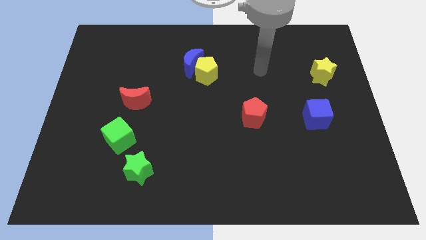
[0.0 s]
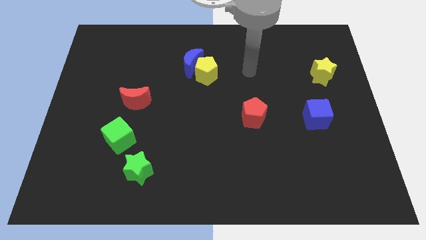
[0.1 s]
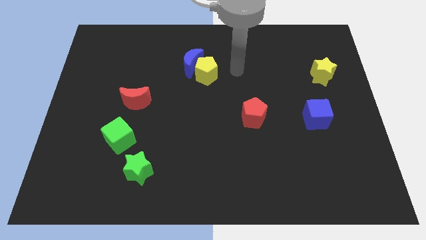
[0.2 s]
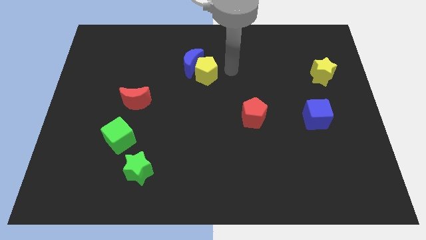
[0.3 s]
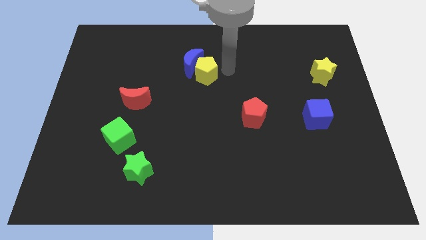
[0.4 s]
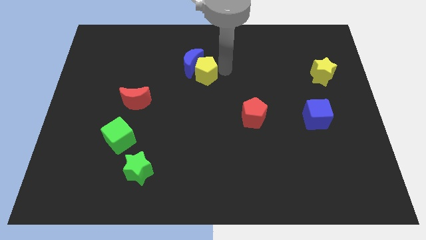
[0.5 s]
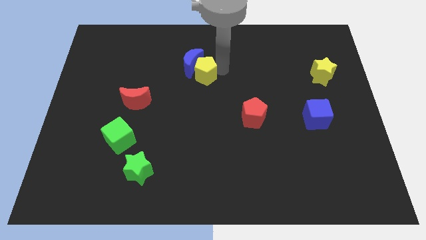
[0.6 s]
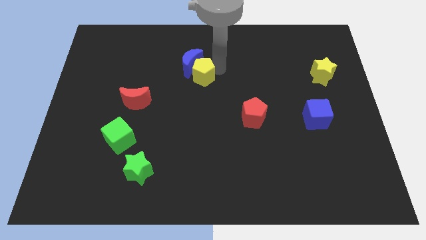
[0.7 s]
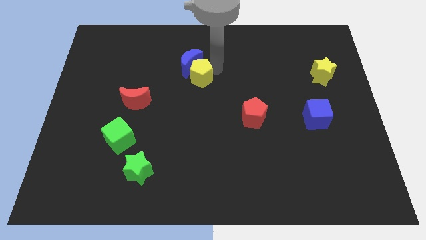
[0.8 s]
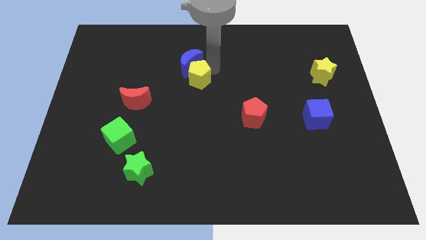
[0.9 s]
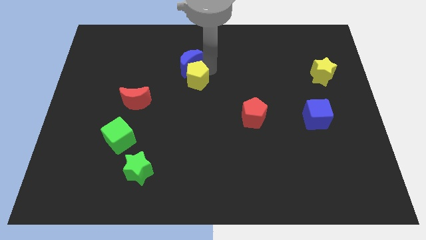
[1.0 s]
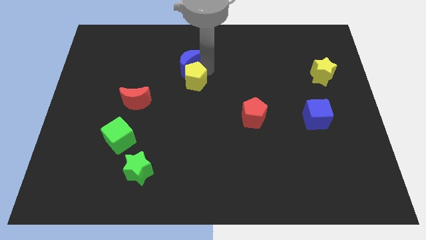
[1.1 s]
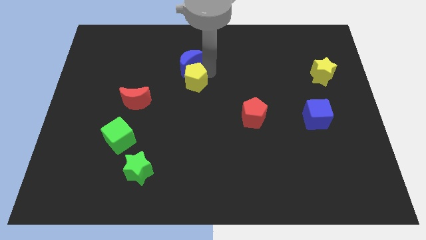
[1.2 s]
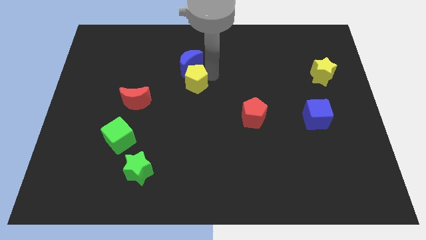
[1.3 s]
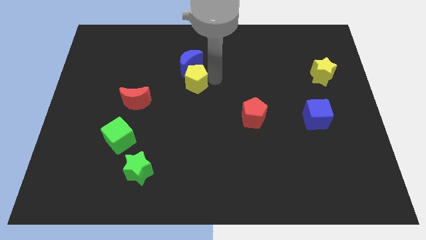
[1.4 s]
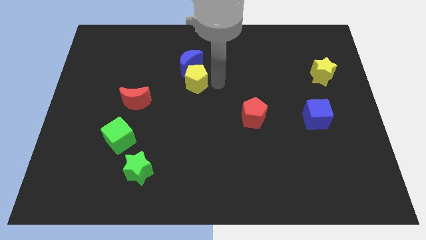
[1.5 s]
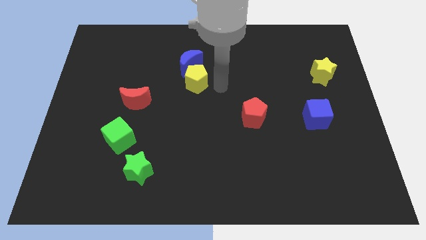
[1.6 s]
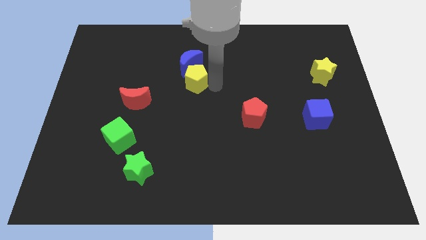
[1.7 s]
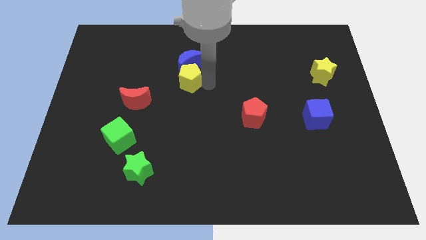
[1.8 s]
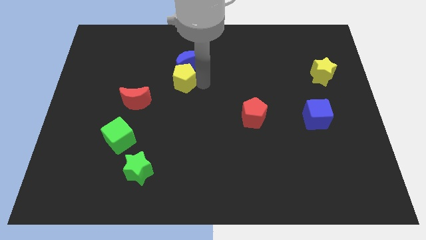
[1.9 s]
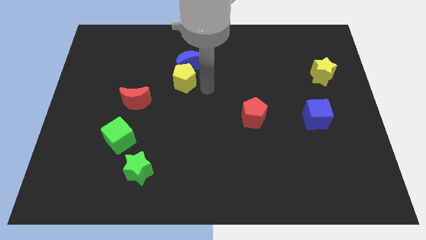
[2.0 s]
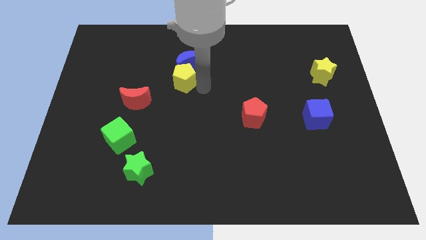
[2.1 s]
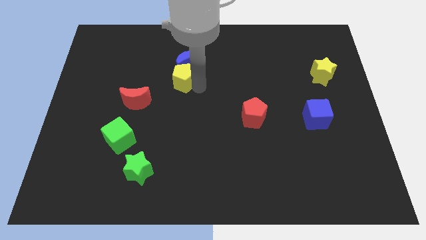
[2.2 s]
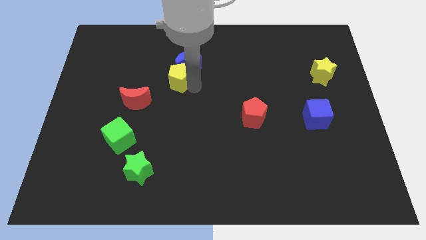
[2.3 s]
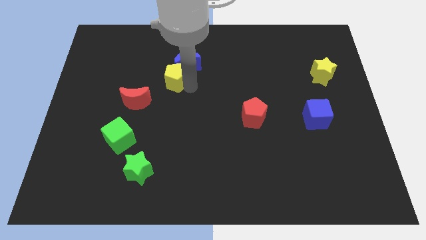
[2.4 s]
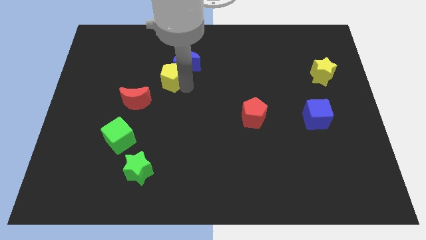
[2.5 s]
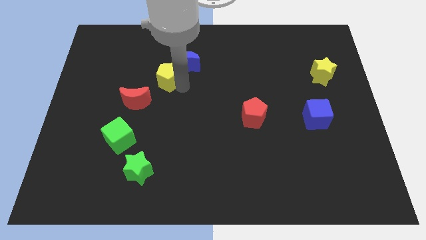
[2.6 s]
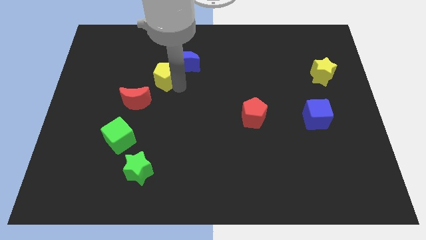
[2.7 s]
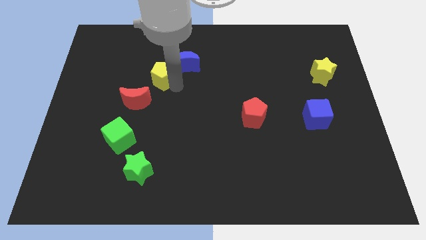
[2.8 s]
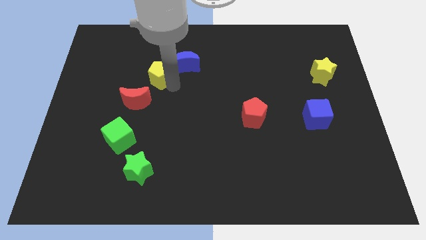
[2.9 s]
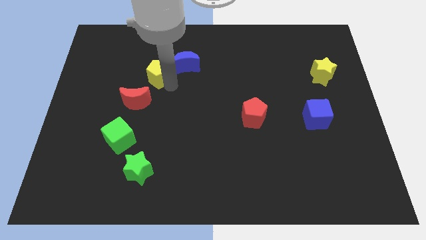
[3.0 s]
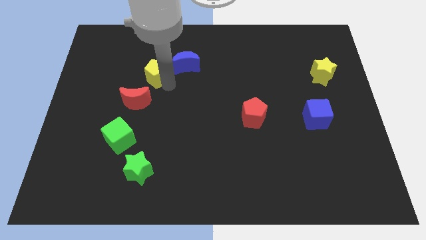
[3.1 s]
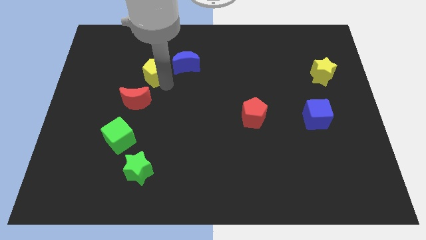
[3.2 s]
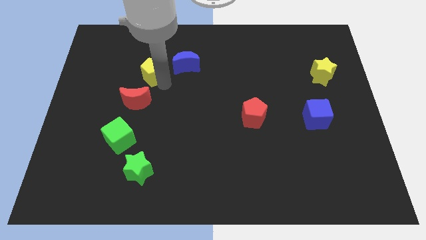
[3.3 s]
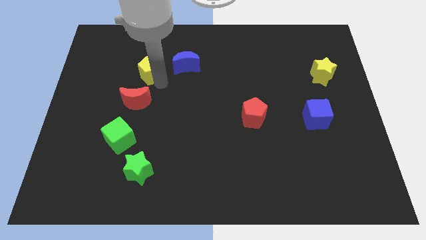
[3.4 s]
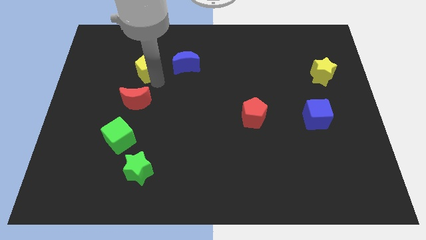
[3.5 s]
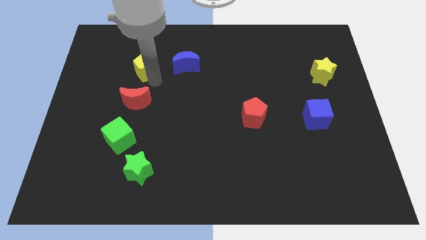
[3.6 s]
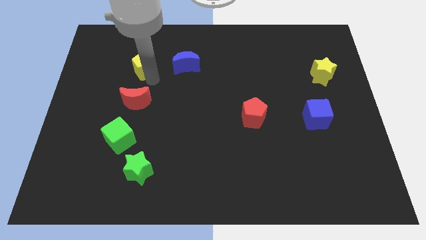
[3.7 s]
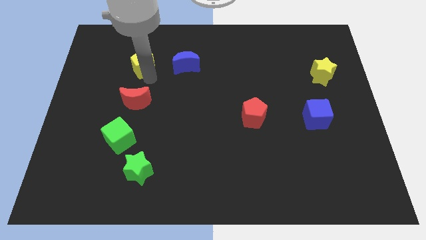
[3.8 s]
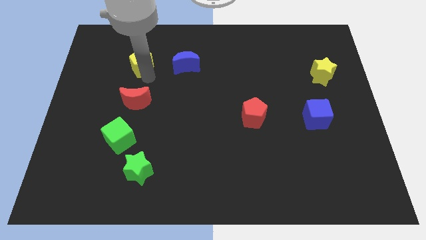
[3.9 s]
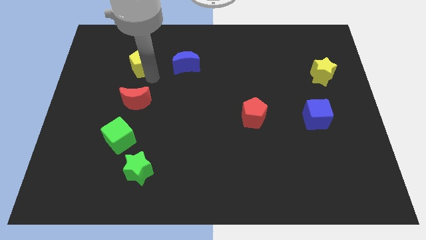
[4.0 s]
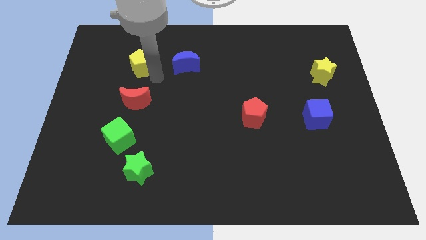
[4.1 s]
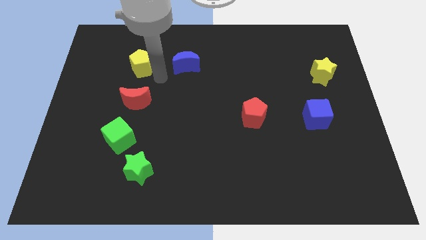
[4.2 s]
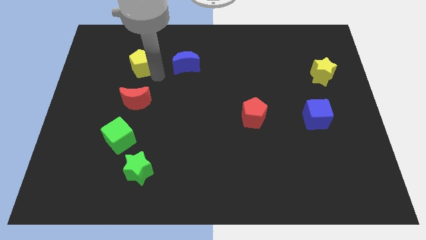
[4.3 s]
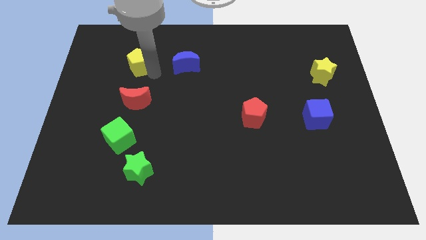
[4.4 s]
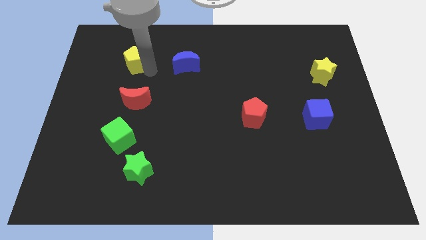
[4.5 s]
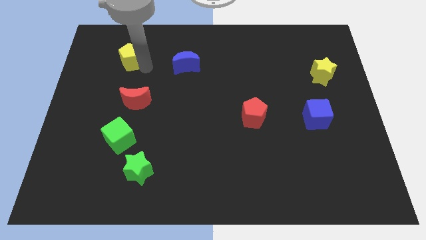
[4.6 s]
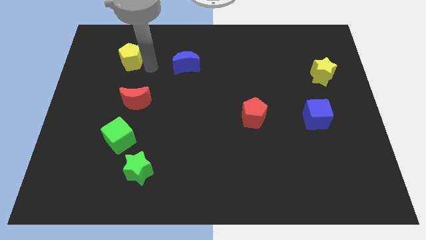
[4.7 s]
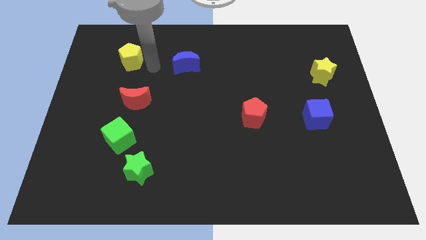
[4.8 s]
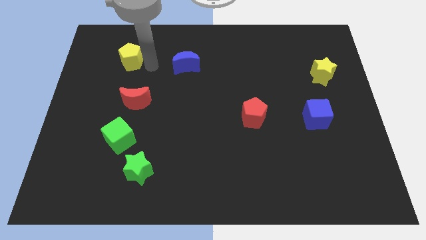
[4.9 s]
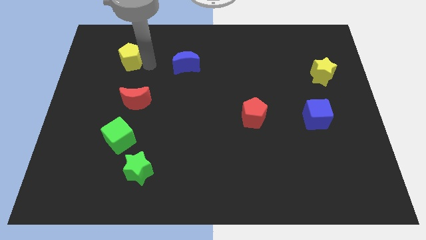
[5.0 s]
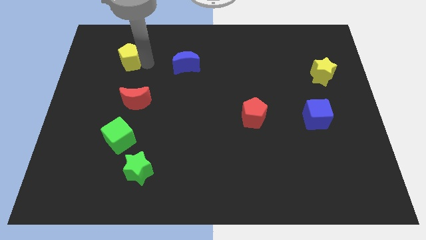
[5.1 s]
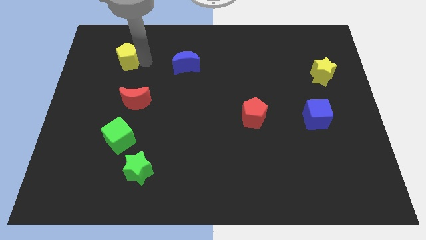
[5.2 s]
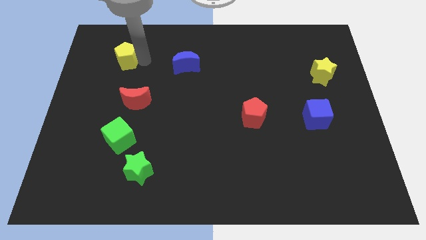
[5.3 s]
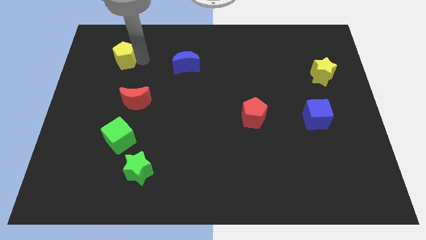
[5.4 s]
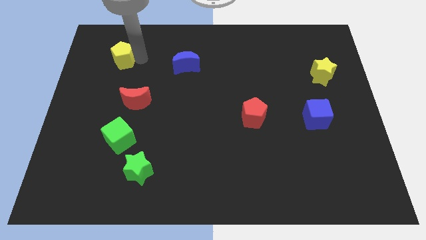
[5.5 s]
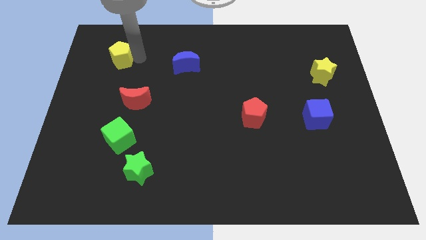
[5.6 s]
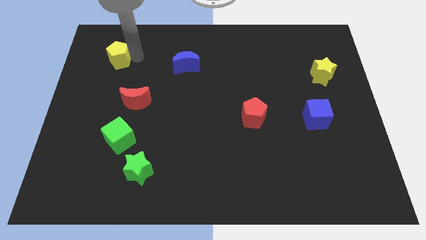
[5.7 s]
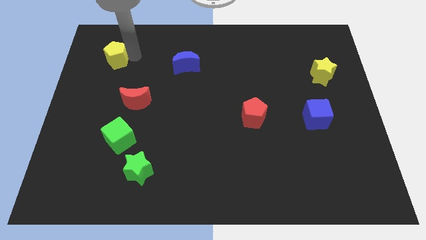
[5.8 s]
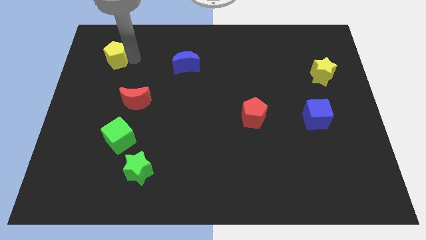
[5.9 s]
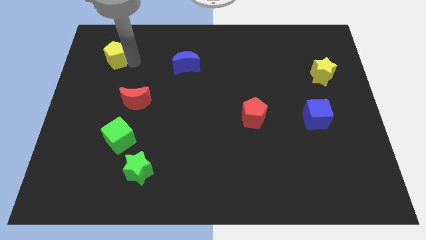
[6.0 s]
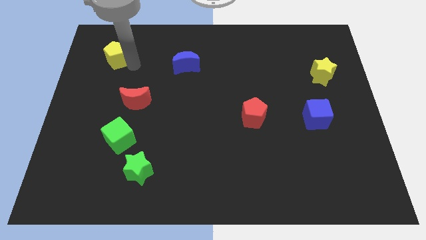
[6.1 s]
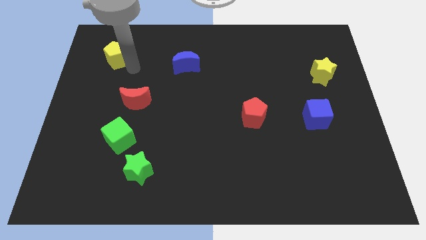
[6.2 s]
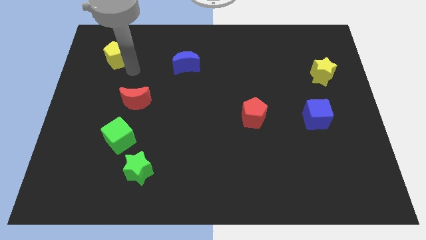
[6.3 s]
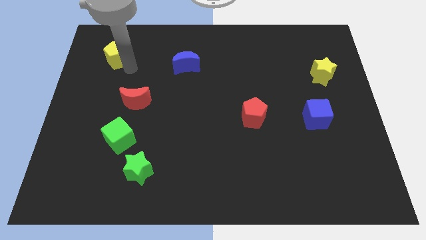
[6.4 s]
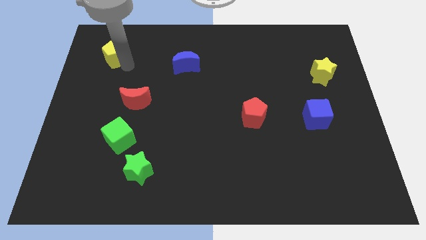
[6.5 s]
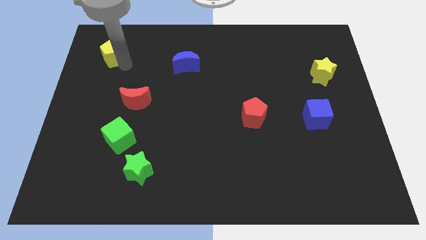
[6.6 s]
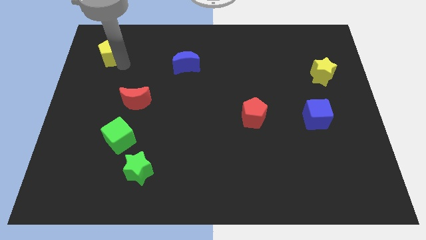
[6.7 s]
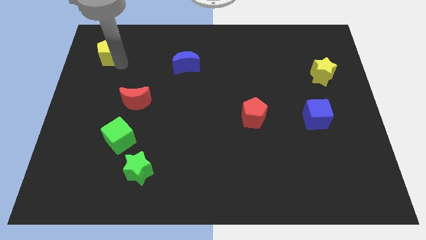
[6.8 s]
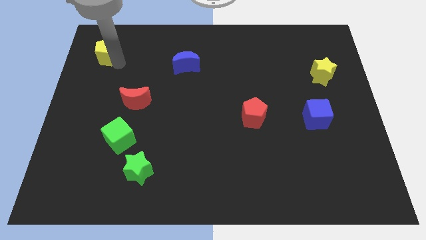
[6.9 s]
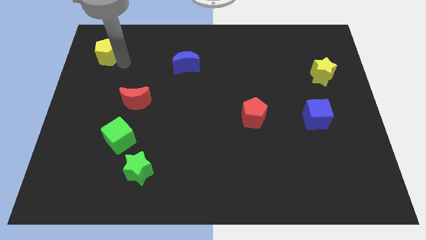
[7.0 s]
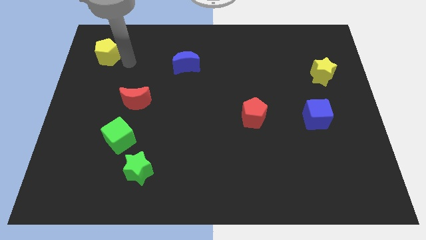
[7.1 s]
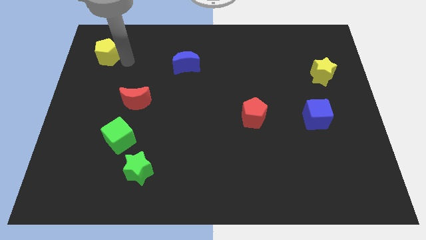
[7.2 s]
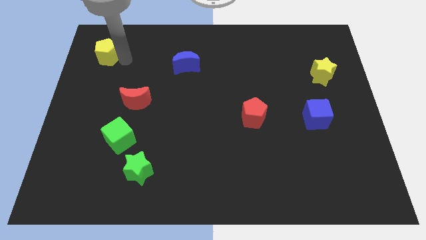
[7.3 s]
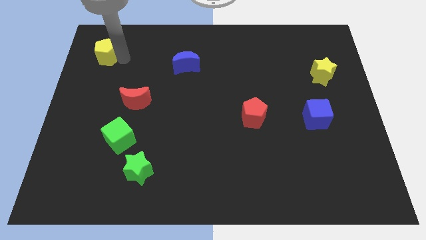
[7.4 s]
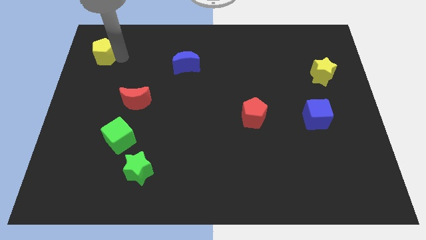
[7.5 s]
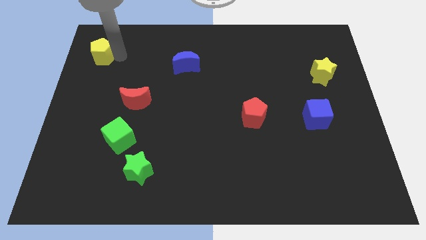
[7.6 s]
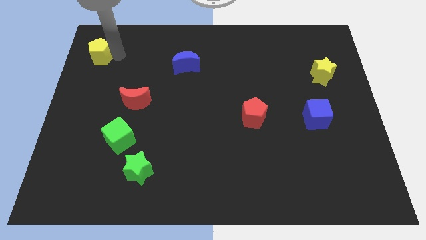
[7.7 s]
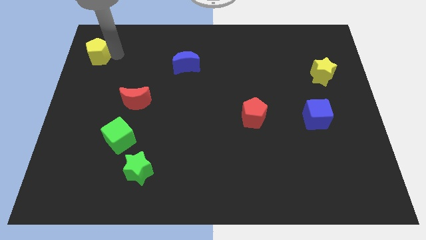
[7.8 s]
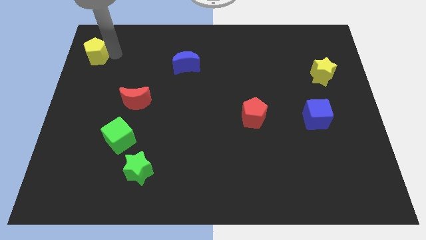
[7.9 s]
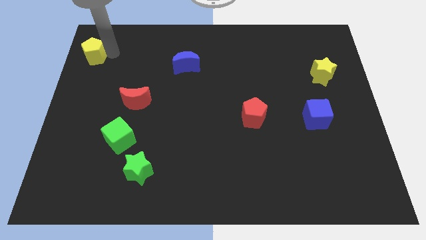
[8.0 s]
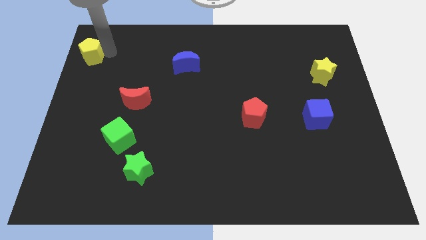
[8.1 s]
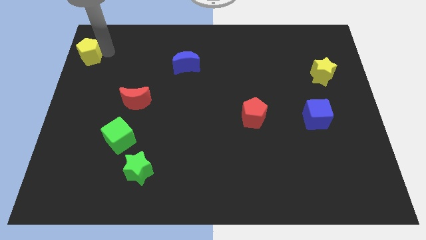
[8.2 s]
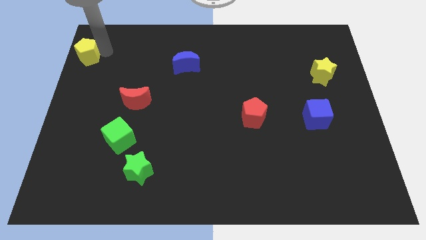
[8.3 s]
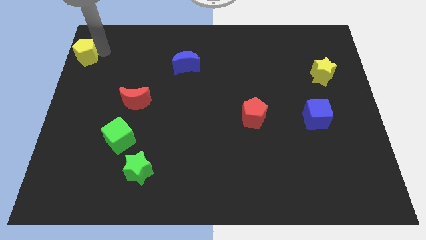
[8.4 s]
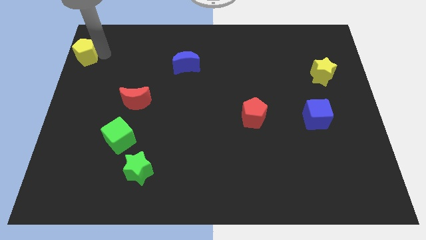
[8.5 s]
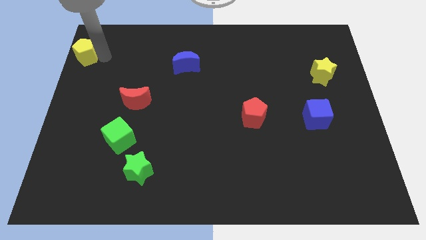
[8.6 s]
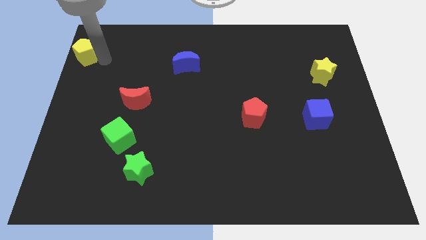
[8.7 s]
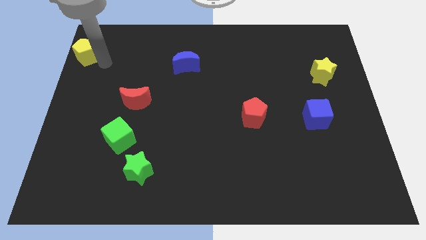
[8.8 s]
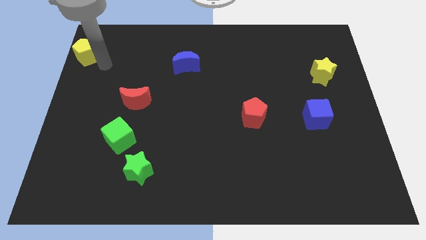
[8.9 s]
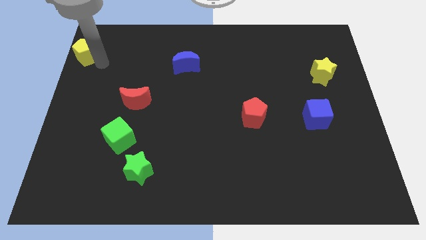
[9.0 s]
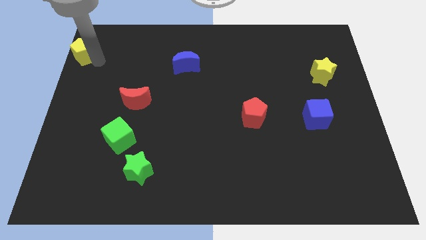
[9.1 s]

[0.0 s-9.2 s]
move the yellow pentagon to the top left
